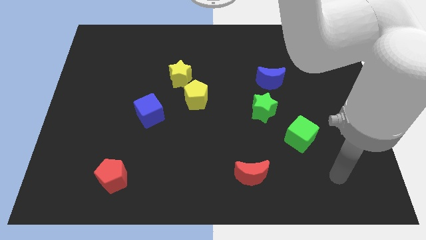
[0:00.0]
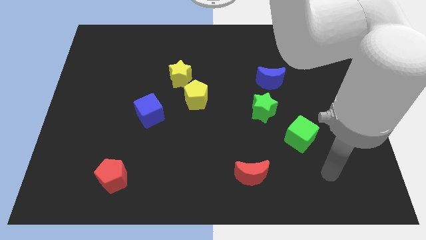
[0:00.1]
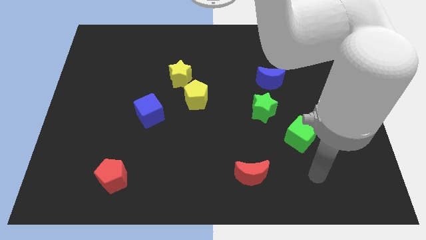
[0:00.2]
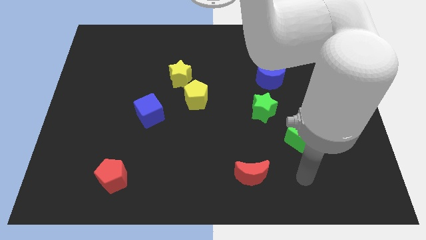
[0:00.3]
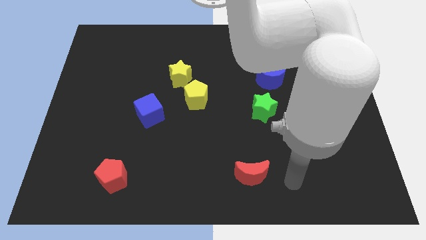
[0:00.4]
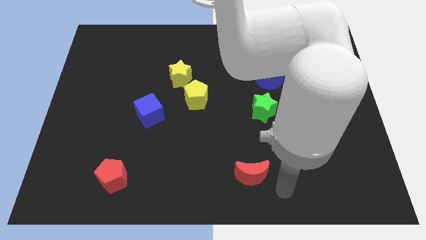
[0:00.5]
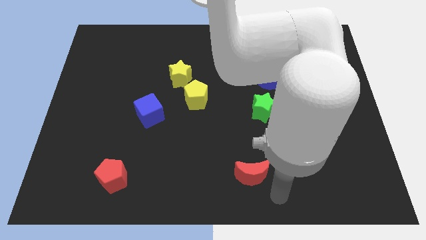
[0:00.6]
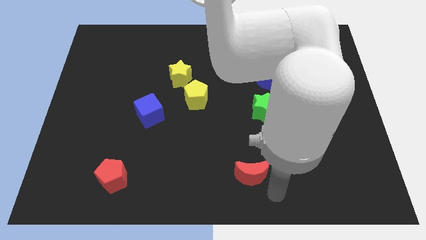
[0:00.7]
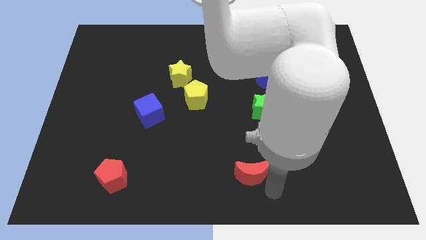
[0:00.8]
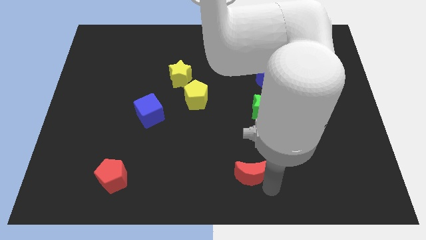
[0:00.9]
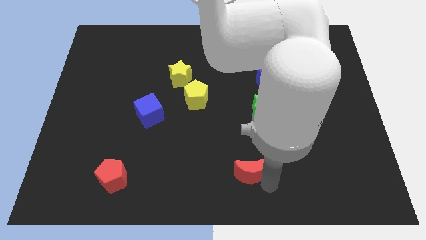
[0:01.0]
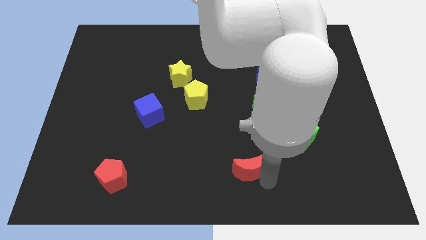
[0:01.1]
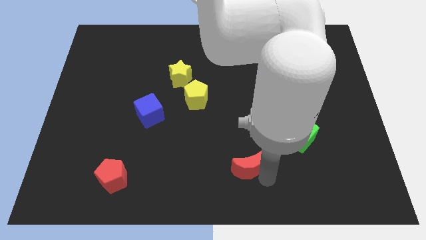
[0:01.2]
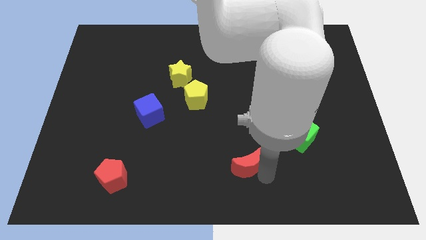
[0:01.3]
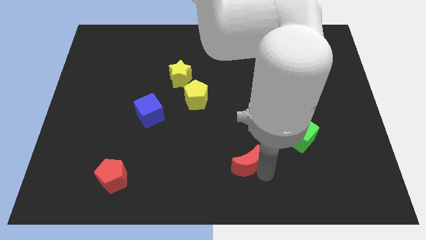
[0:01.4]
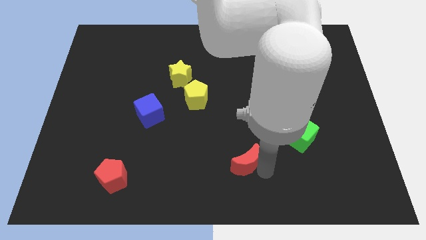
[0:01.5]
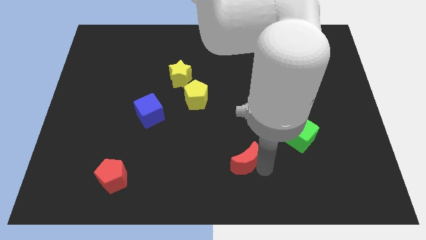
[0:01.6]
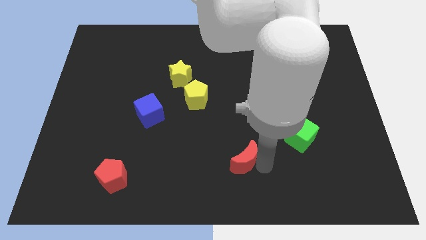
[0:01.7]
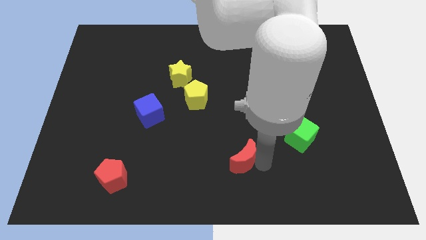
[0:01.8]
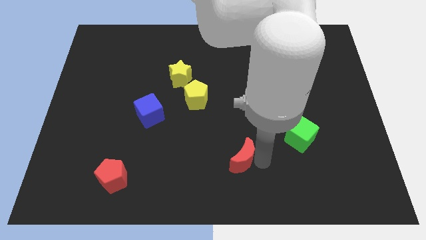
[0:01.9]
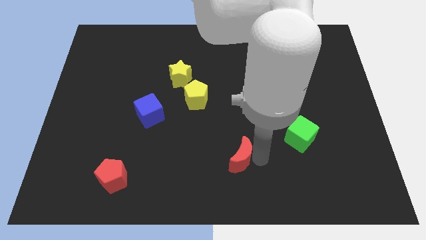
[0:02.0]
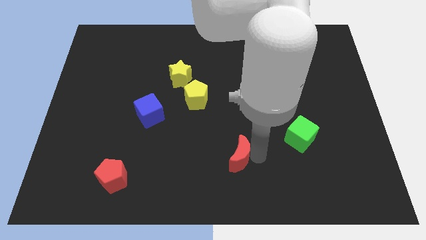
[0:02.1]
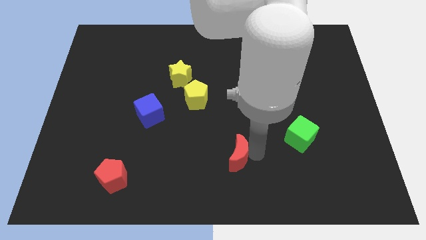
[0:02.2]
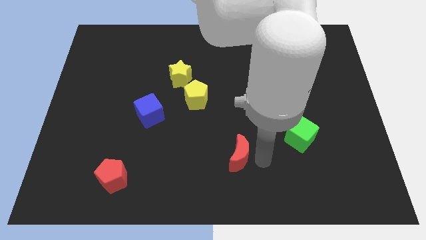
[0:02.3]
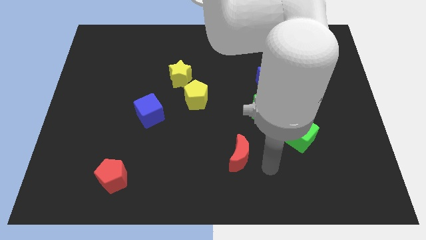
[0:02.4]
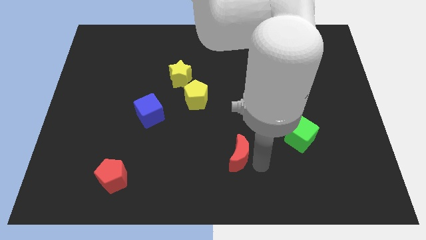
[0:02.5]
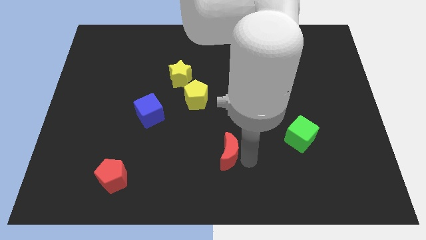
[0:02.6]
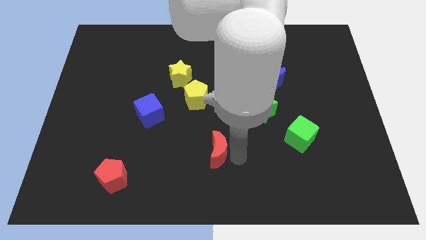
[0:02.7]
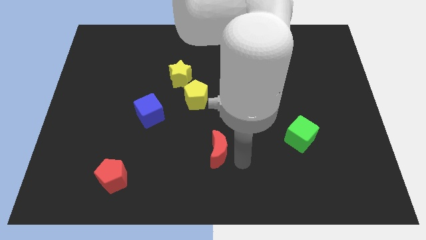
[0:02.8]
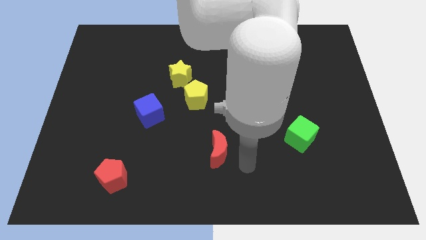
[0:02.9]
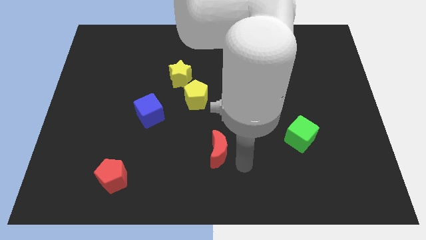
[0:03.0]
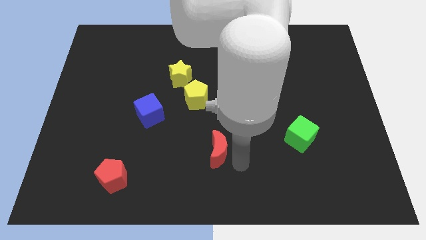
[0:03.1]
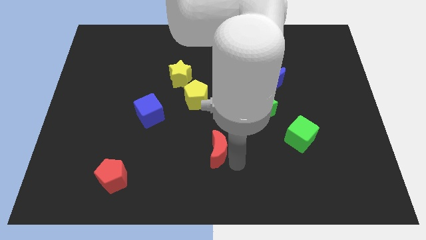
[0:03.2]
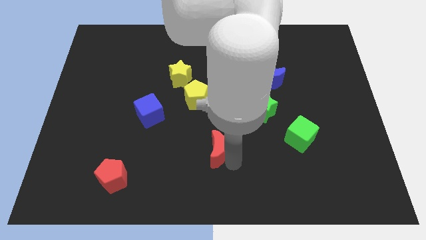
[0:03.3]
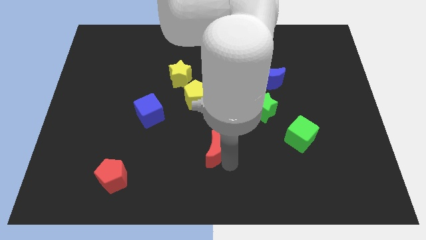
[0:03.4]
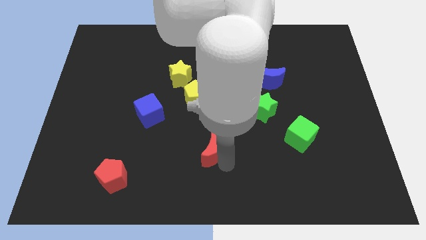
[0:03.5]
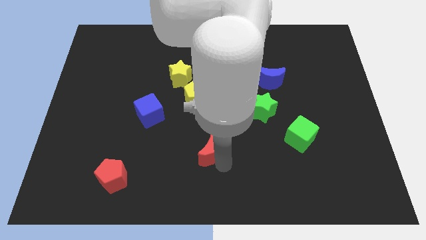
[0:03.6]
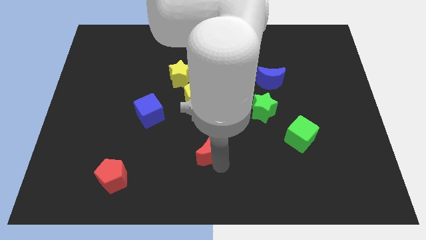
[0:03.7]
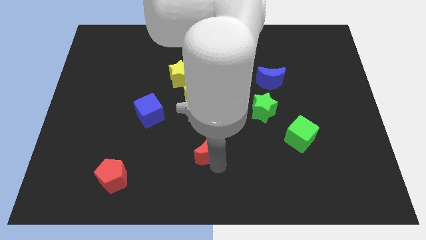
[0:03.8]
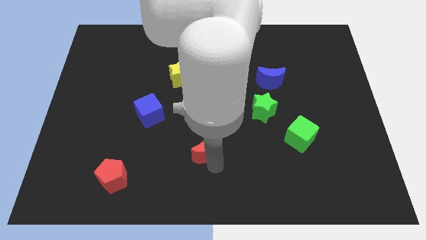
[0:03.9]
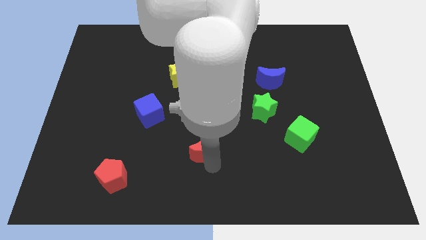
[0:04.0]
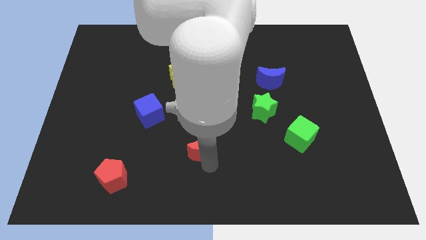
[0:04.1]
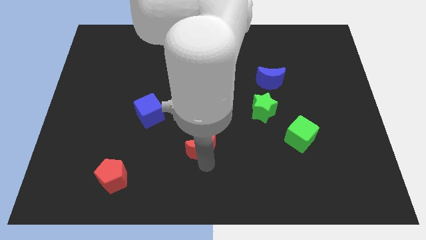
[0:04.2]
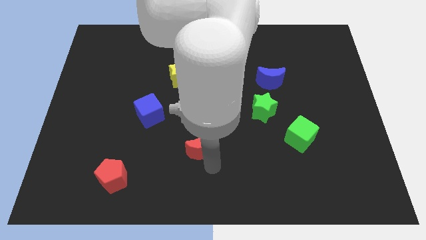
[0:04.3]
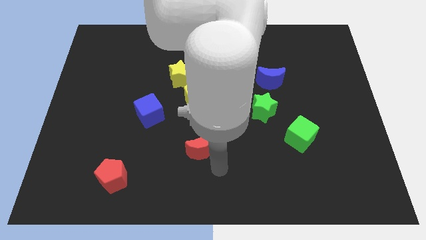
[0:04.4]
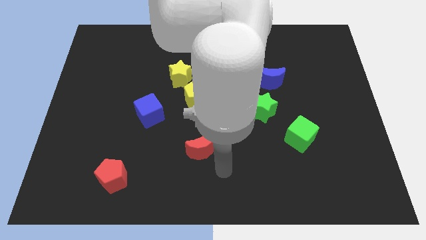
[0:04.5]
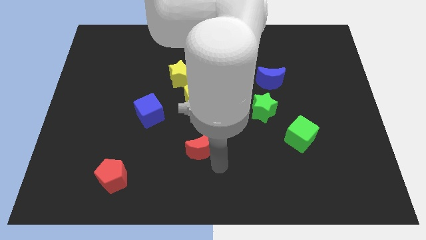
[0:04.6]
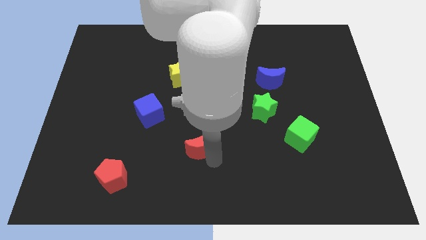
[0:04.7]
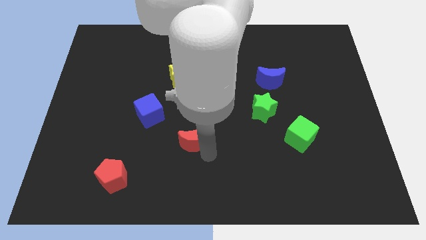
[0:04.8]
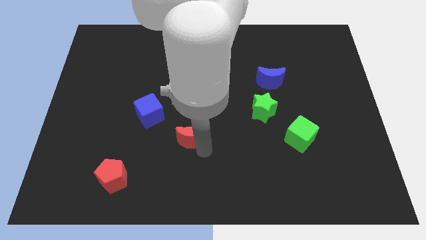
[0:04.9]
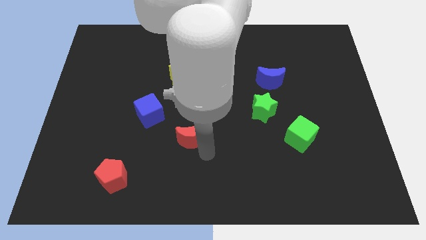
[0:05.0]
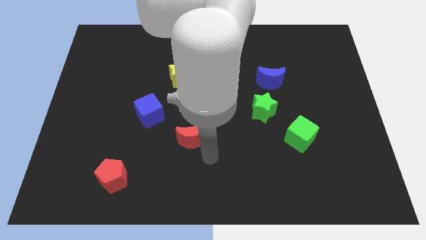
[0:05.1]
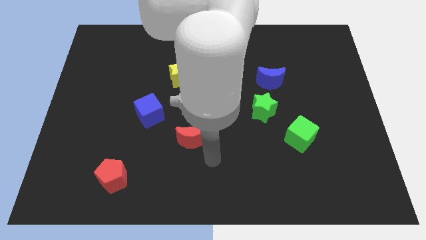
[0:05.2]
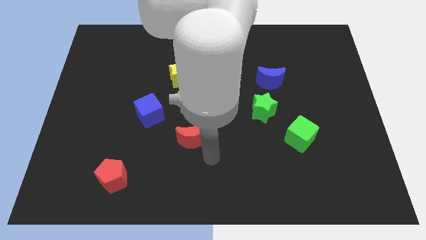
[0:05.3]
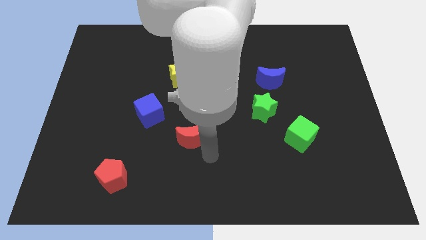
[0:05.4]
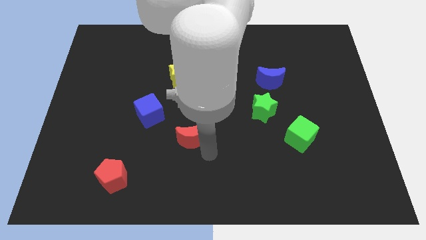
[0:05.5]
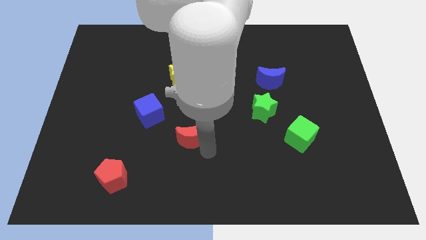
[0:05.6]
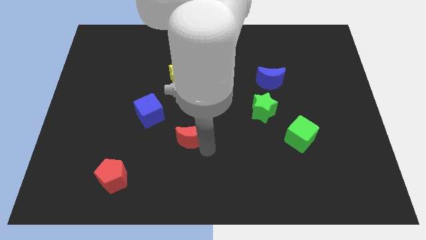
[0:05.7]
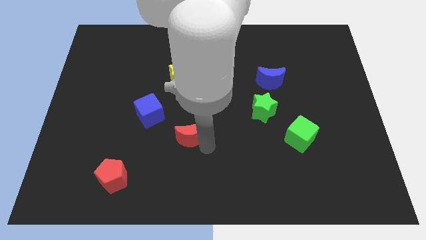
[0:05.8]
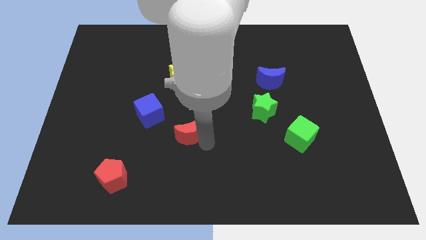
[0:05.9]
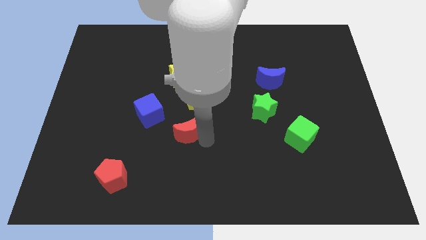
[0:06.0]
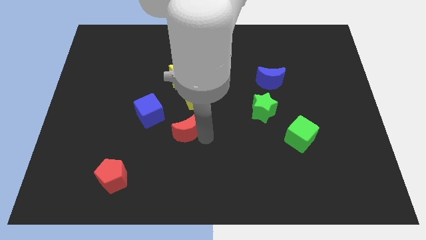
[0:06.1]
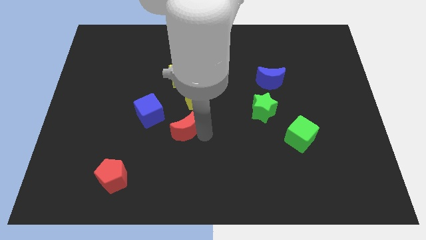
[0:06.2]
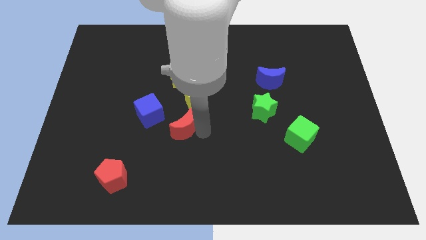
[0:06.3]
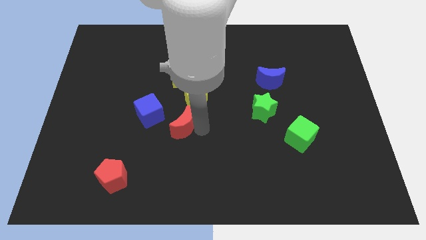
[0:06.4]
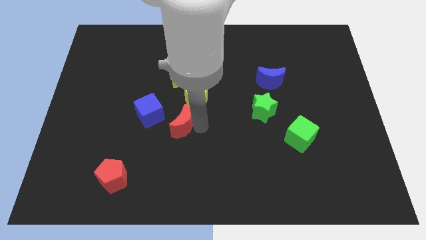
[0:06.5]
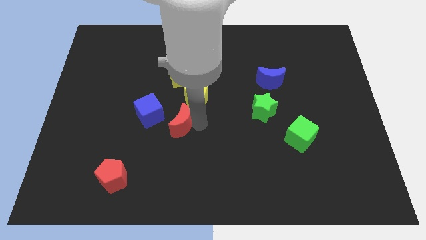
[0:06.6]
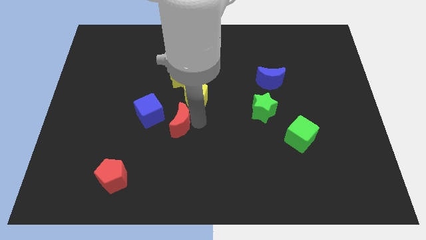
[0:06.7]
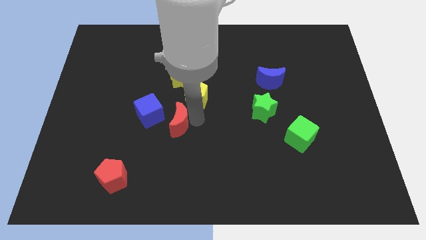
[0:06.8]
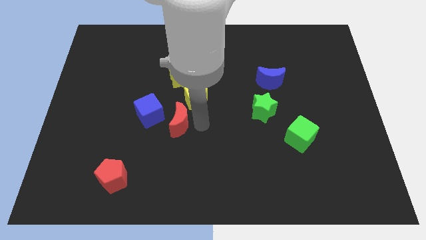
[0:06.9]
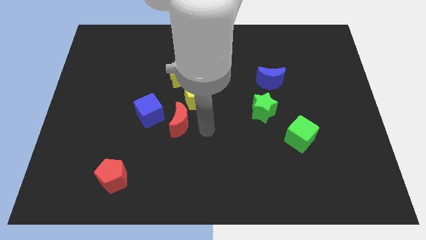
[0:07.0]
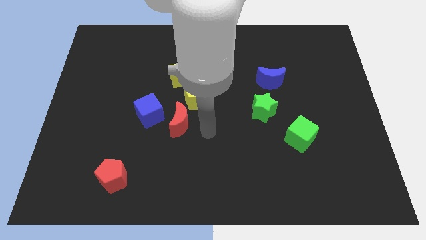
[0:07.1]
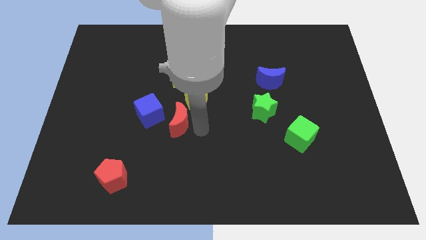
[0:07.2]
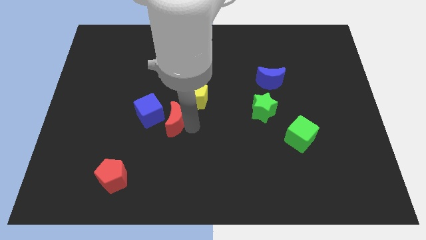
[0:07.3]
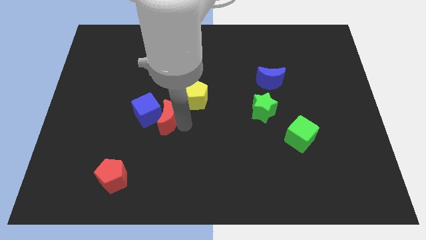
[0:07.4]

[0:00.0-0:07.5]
slide the red moon next to the blue cube
